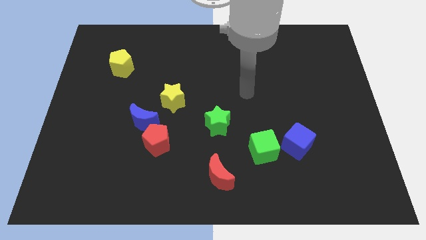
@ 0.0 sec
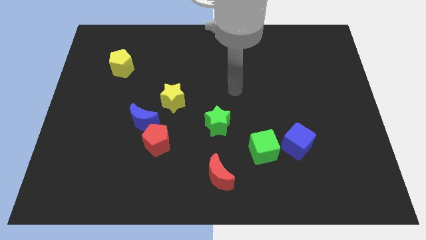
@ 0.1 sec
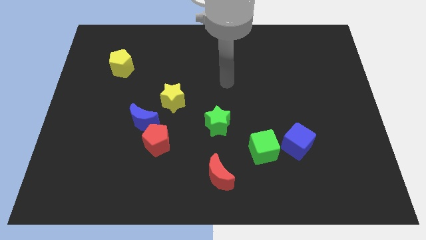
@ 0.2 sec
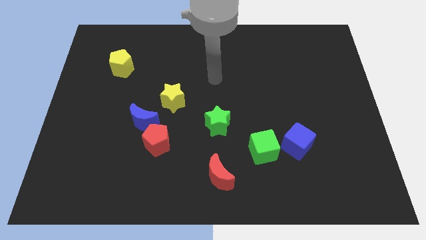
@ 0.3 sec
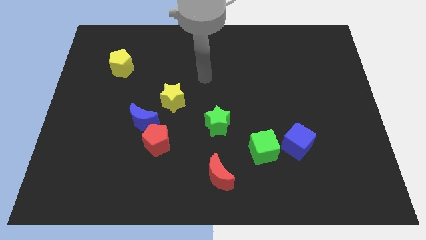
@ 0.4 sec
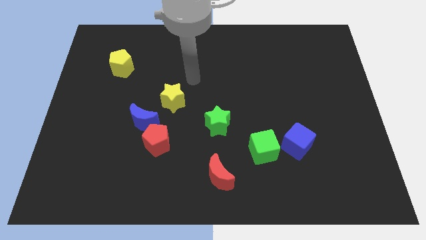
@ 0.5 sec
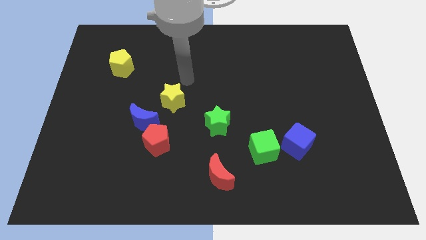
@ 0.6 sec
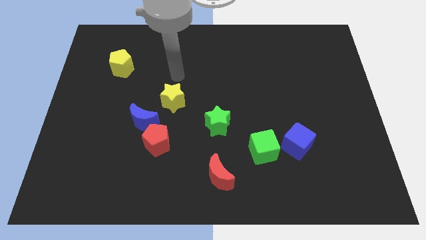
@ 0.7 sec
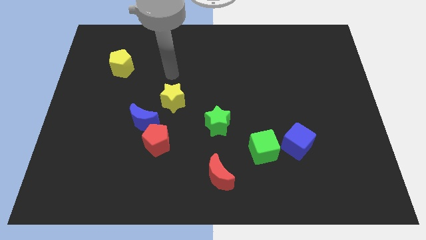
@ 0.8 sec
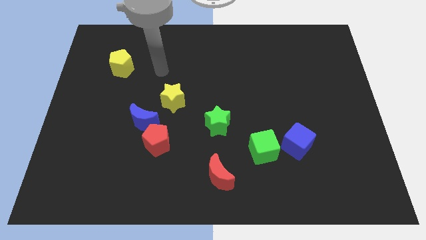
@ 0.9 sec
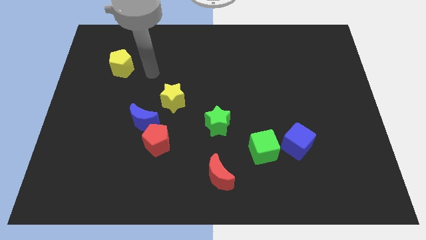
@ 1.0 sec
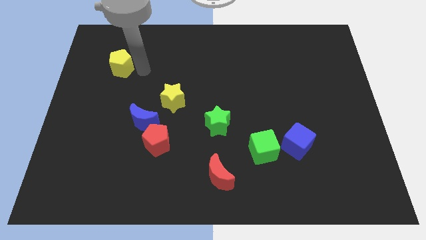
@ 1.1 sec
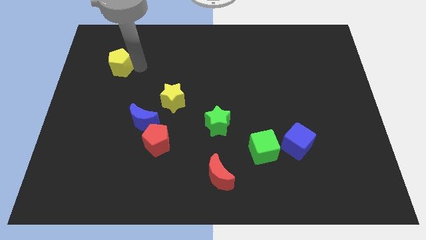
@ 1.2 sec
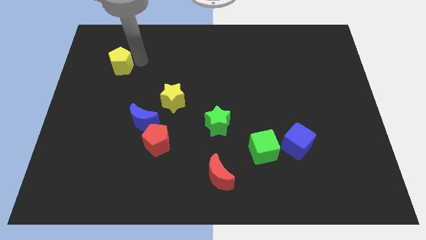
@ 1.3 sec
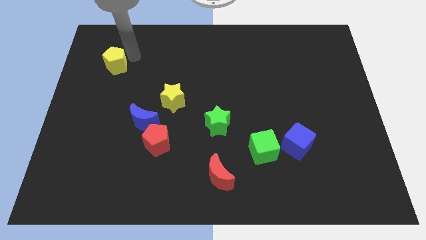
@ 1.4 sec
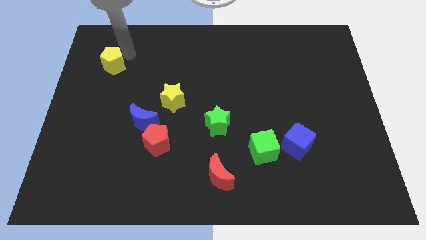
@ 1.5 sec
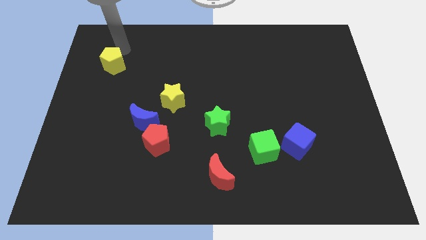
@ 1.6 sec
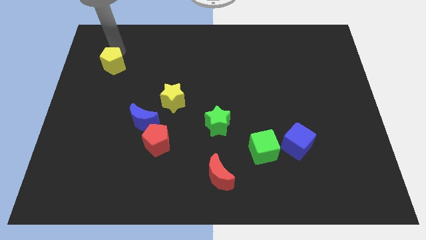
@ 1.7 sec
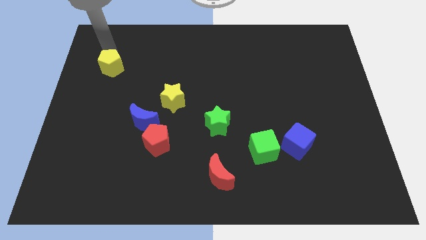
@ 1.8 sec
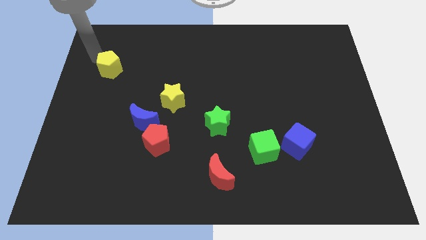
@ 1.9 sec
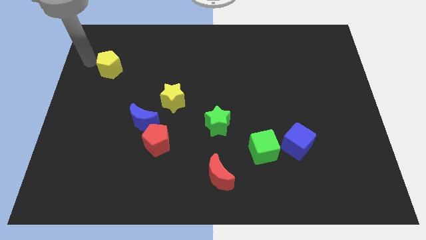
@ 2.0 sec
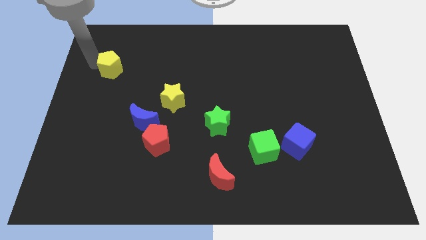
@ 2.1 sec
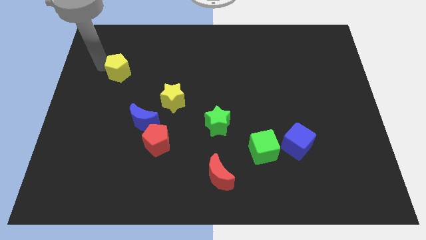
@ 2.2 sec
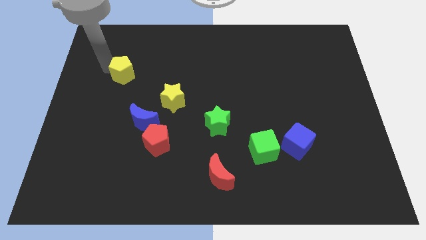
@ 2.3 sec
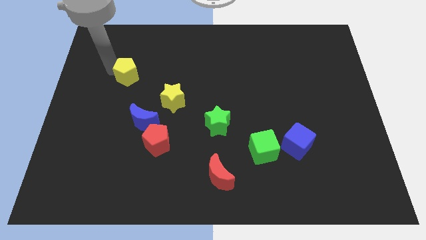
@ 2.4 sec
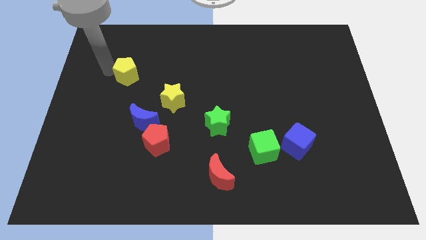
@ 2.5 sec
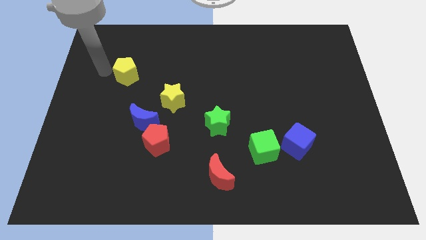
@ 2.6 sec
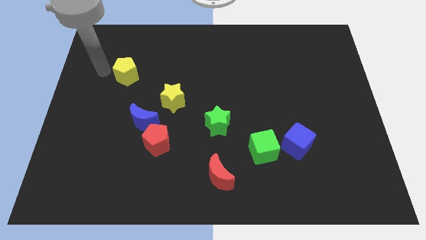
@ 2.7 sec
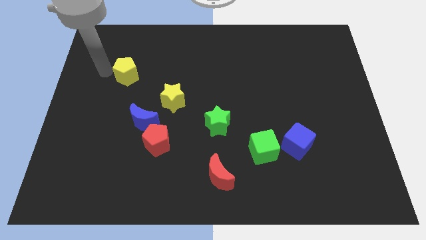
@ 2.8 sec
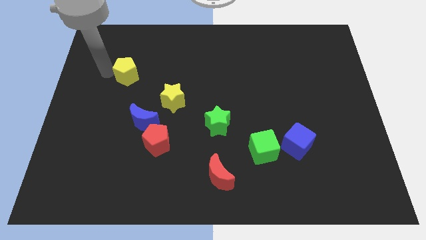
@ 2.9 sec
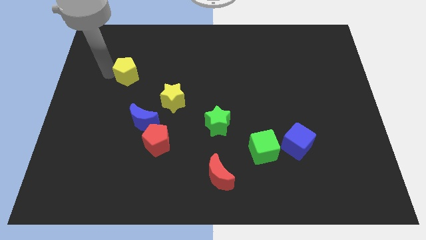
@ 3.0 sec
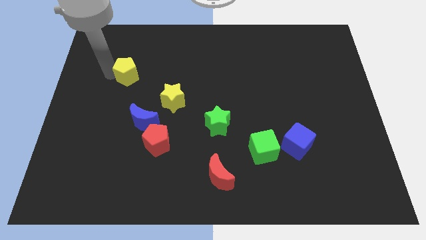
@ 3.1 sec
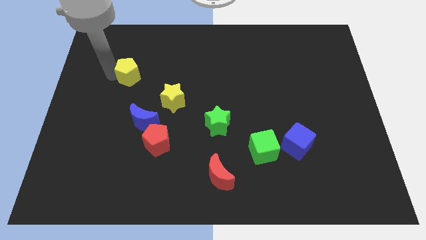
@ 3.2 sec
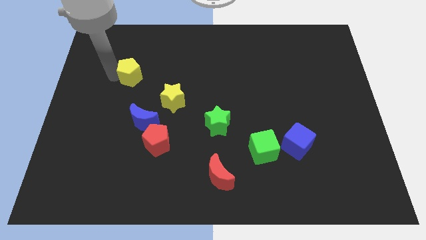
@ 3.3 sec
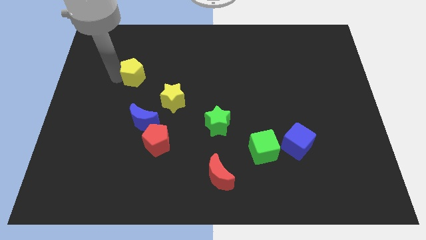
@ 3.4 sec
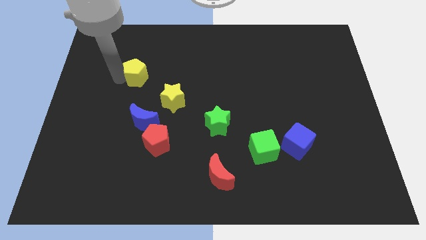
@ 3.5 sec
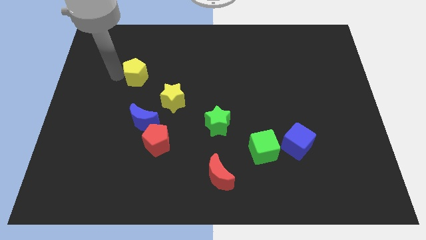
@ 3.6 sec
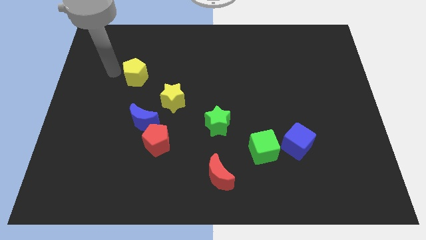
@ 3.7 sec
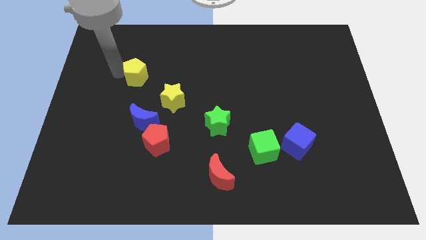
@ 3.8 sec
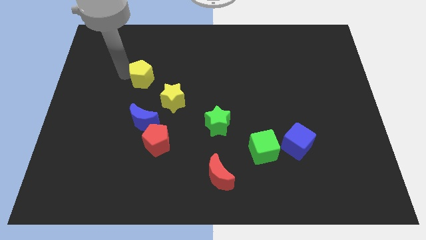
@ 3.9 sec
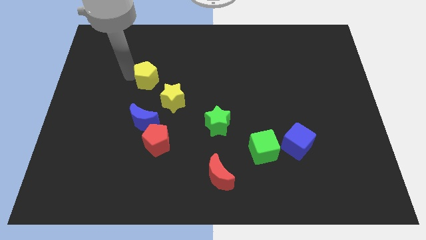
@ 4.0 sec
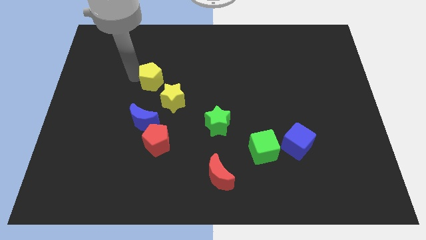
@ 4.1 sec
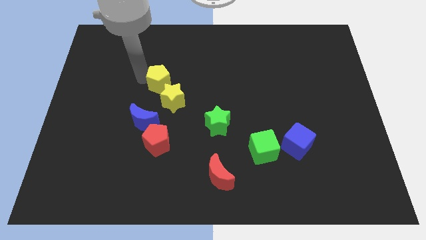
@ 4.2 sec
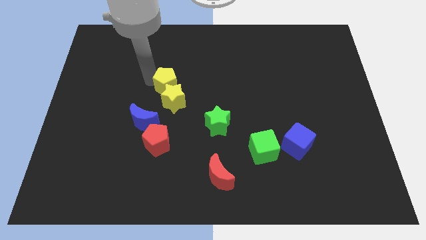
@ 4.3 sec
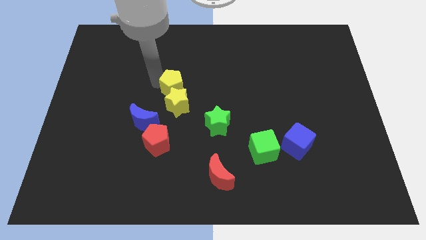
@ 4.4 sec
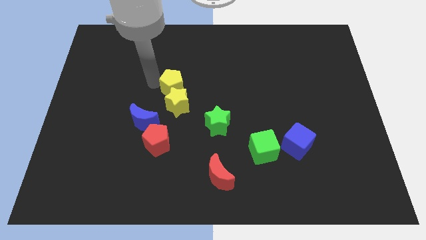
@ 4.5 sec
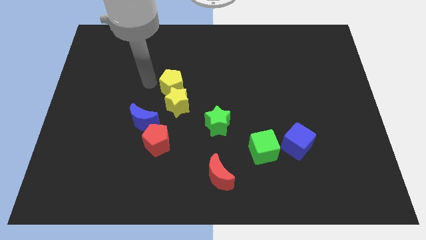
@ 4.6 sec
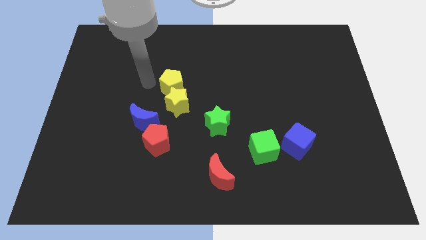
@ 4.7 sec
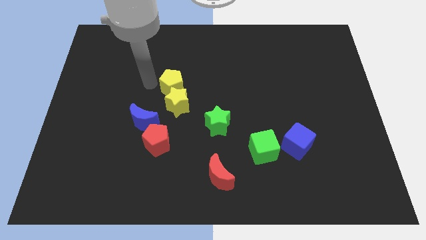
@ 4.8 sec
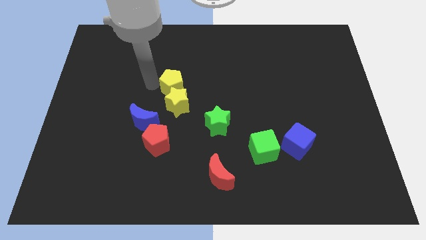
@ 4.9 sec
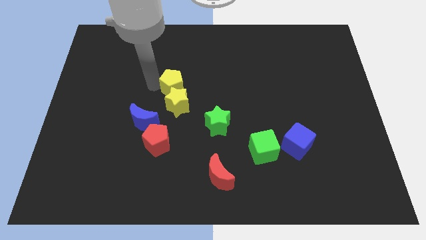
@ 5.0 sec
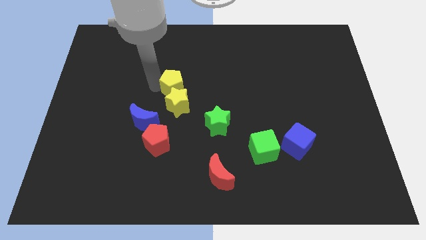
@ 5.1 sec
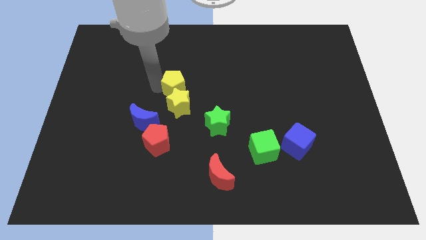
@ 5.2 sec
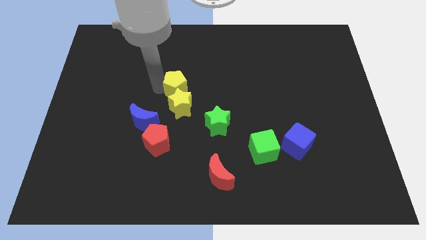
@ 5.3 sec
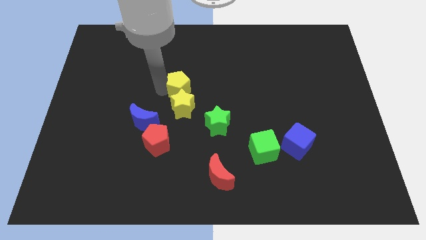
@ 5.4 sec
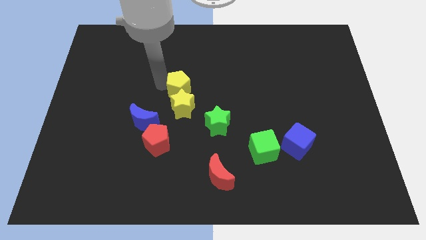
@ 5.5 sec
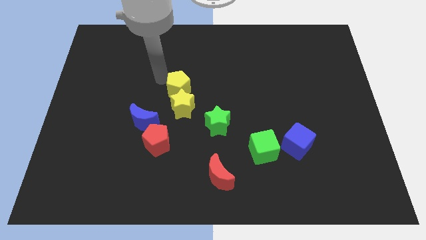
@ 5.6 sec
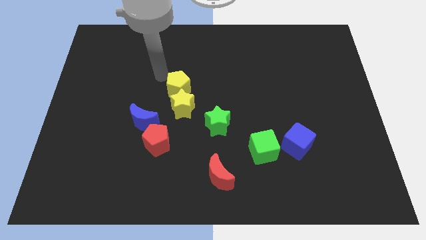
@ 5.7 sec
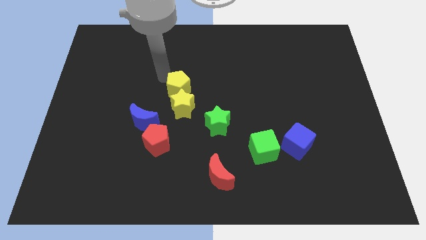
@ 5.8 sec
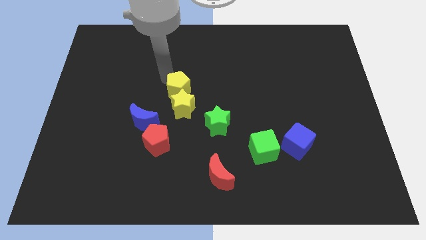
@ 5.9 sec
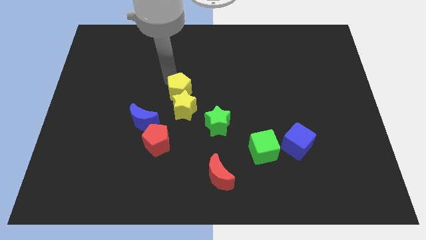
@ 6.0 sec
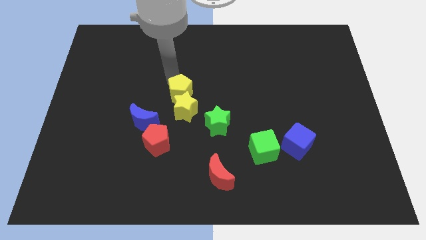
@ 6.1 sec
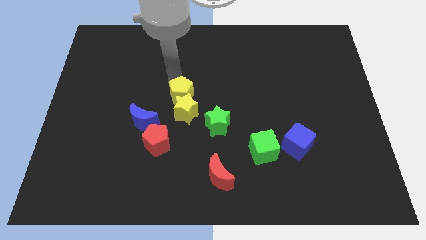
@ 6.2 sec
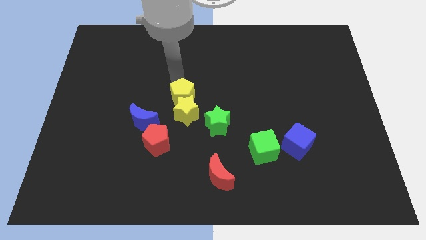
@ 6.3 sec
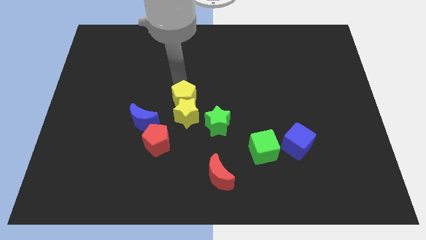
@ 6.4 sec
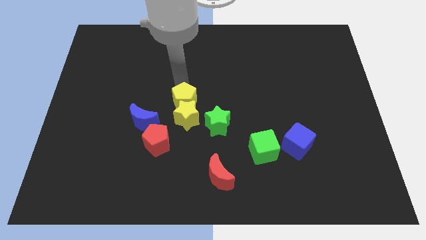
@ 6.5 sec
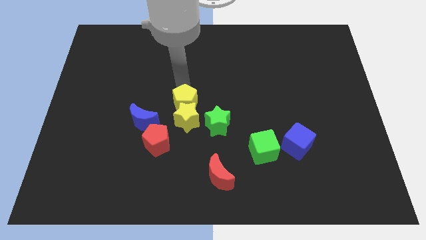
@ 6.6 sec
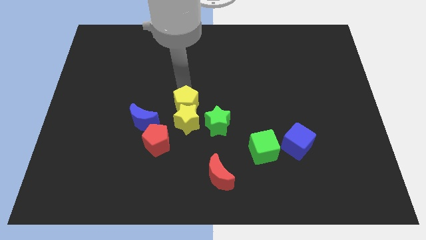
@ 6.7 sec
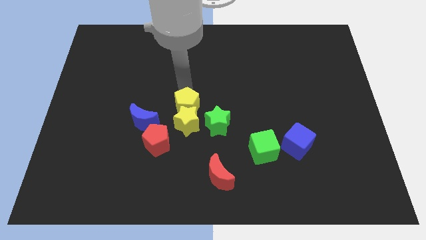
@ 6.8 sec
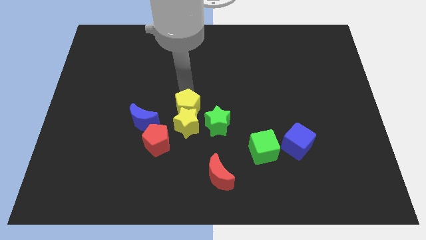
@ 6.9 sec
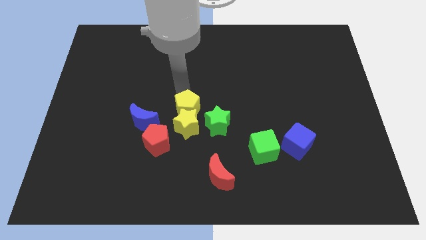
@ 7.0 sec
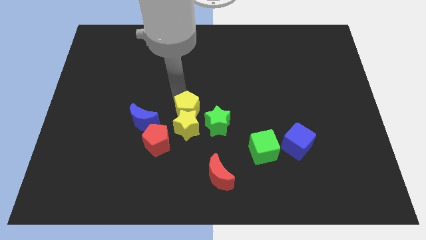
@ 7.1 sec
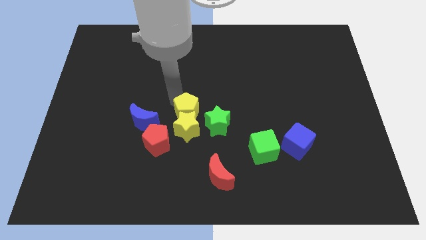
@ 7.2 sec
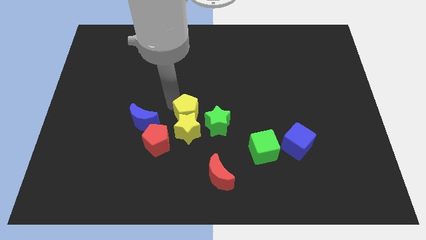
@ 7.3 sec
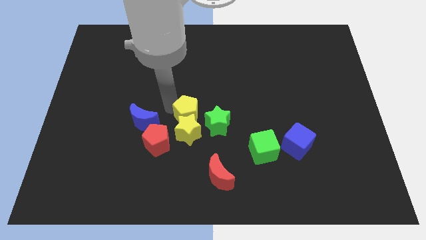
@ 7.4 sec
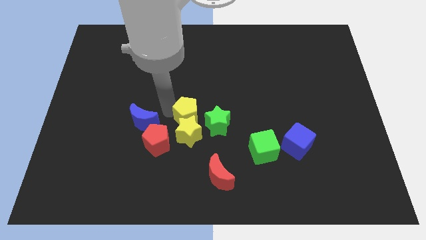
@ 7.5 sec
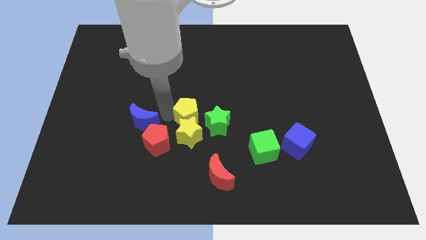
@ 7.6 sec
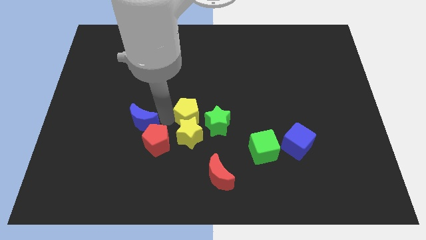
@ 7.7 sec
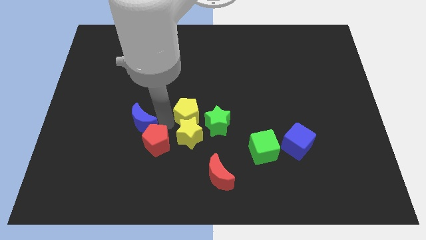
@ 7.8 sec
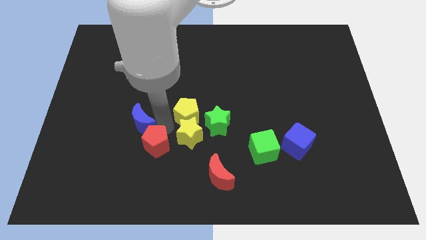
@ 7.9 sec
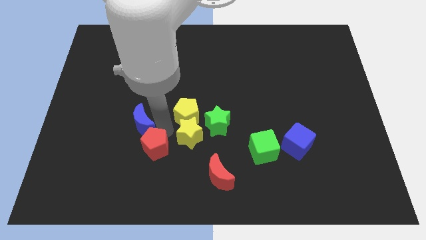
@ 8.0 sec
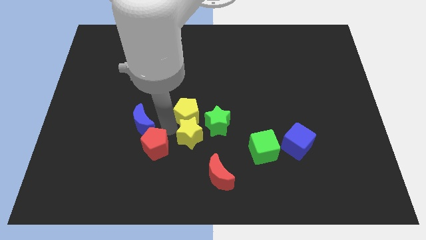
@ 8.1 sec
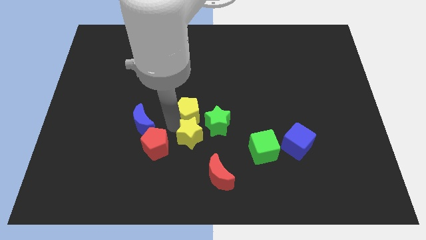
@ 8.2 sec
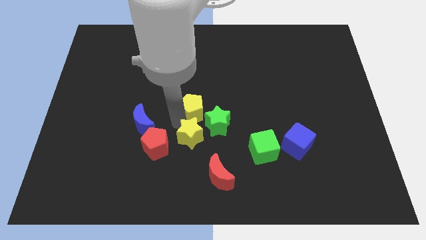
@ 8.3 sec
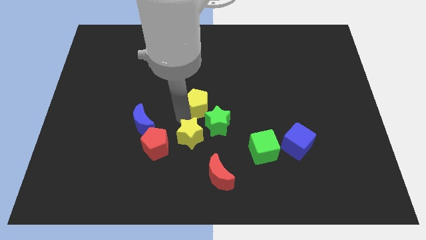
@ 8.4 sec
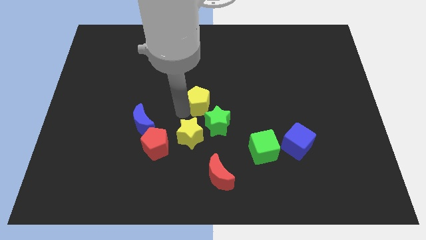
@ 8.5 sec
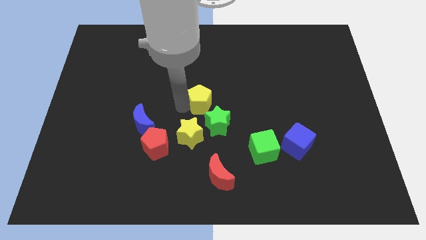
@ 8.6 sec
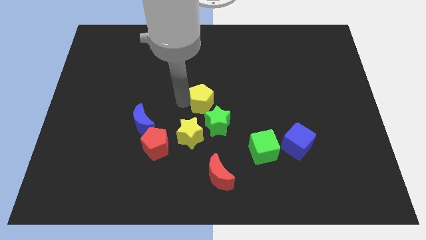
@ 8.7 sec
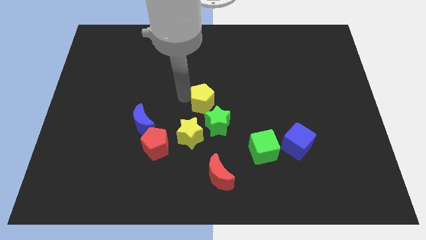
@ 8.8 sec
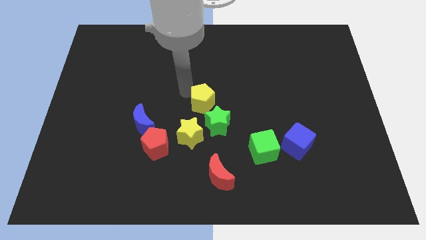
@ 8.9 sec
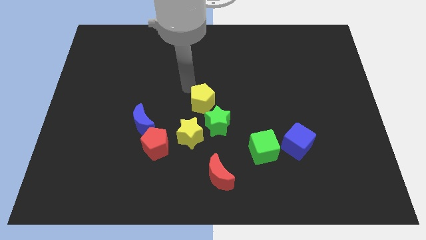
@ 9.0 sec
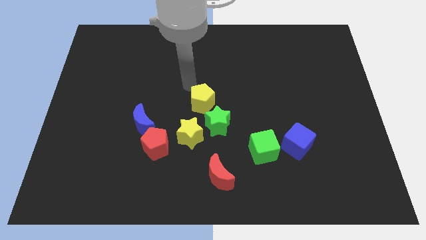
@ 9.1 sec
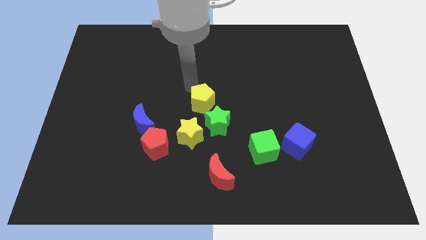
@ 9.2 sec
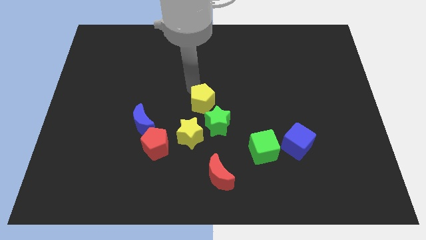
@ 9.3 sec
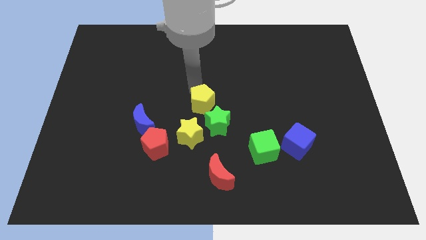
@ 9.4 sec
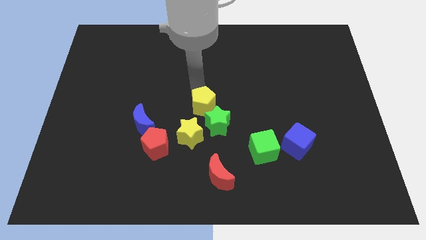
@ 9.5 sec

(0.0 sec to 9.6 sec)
push the yellow pentagon towards the green star
